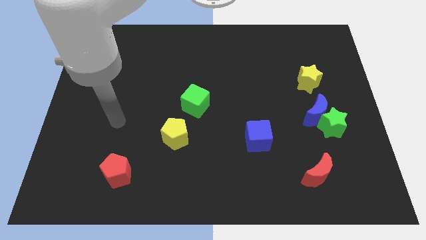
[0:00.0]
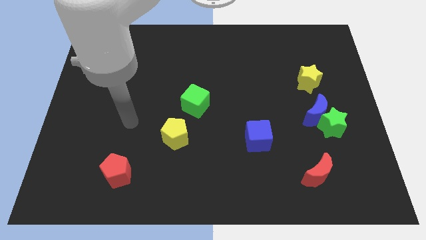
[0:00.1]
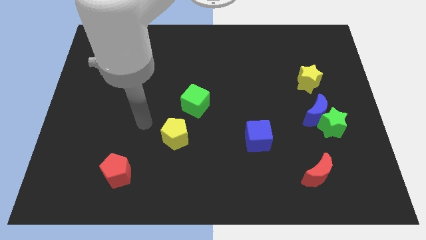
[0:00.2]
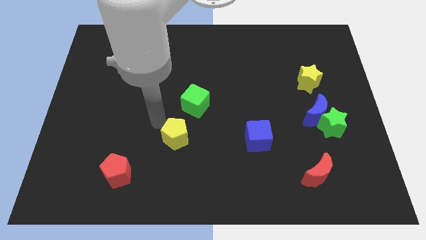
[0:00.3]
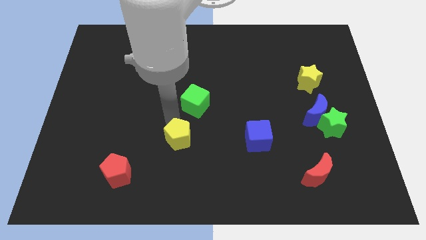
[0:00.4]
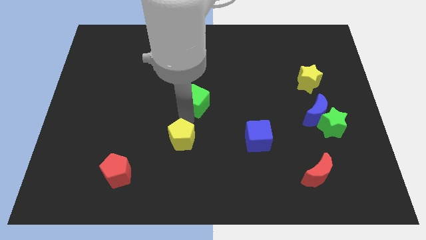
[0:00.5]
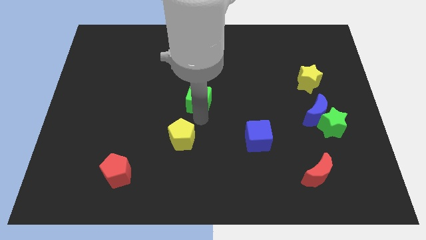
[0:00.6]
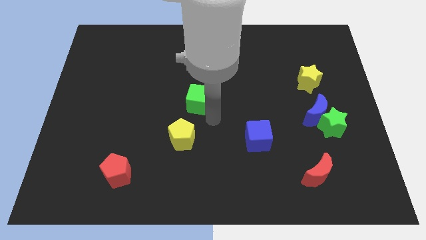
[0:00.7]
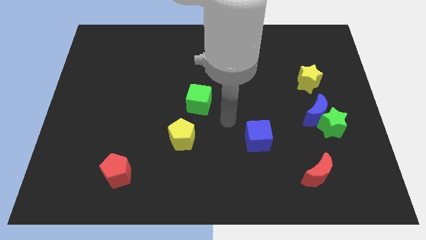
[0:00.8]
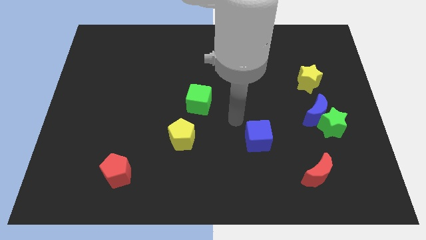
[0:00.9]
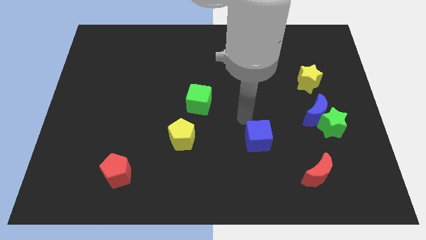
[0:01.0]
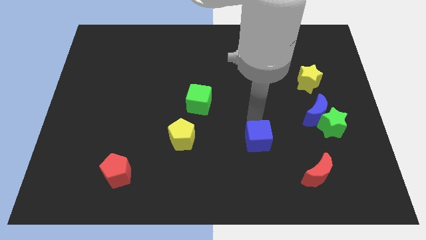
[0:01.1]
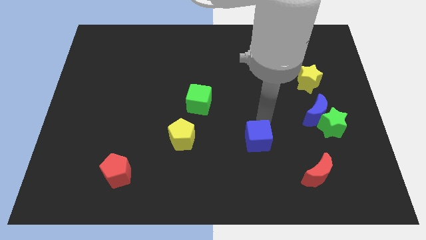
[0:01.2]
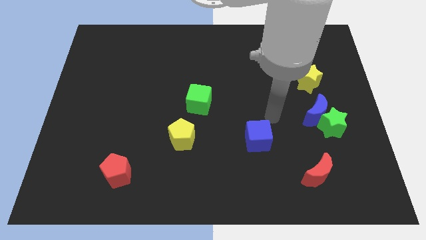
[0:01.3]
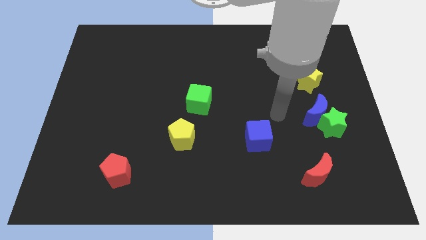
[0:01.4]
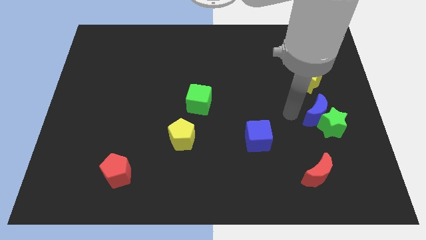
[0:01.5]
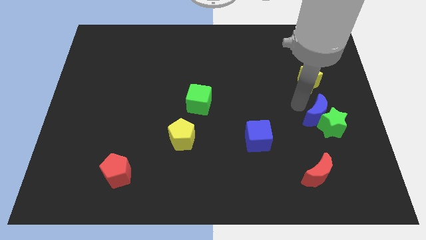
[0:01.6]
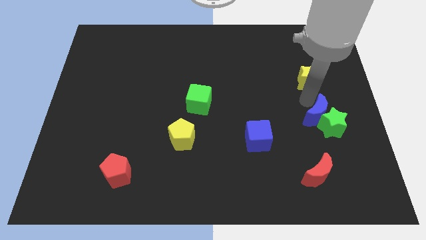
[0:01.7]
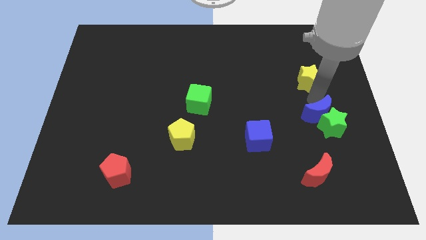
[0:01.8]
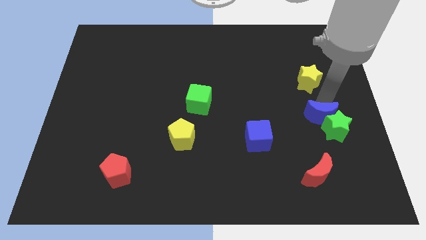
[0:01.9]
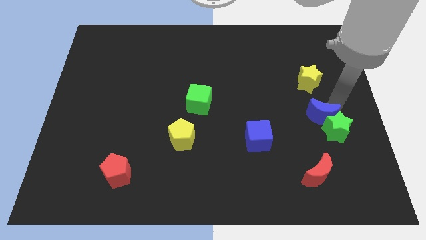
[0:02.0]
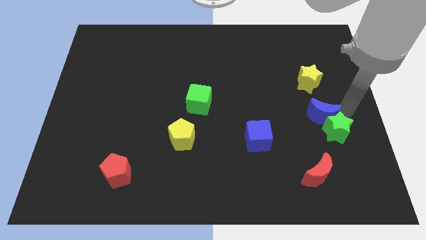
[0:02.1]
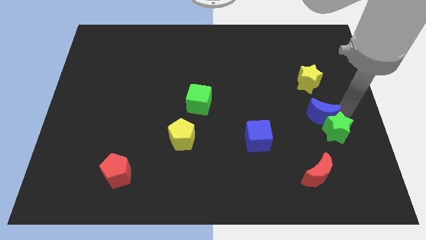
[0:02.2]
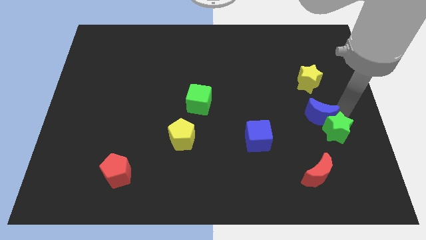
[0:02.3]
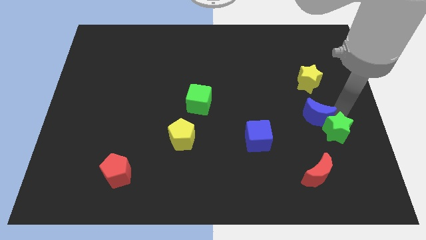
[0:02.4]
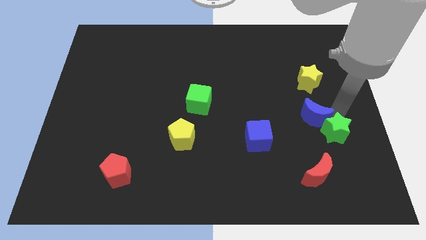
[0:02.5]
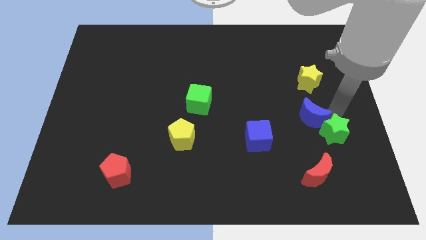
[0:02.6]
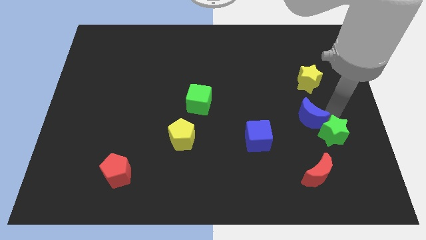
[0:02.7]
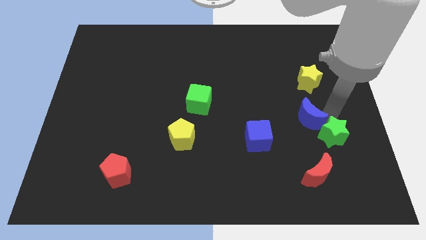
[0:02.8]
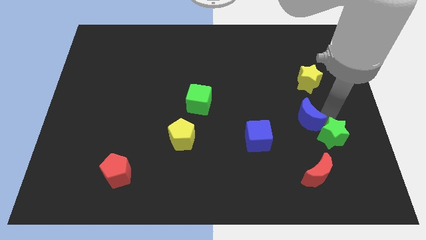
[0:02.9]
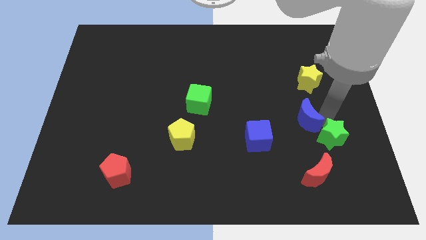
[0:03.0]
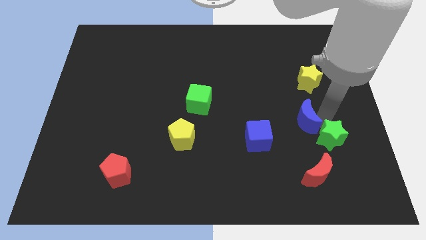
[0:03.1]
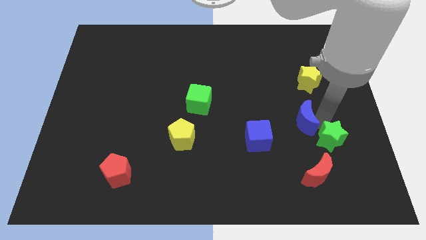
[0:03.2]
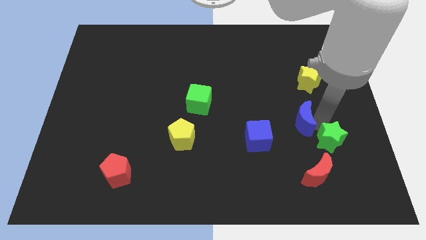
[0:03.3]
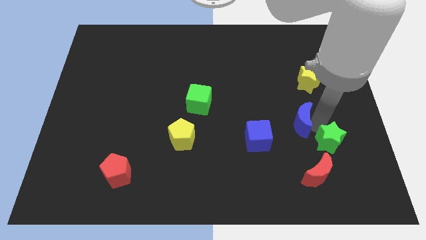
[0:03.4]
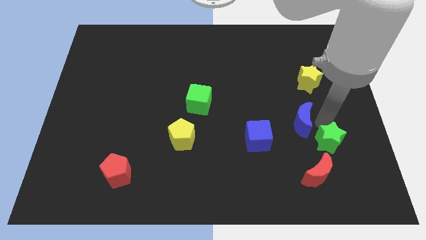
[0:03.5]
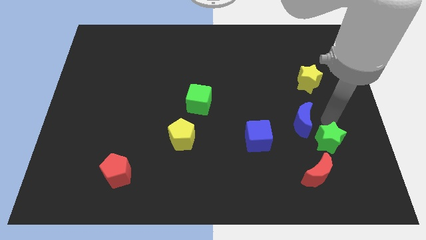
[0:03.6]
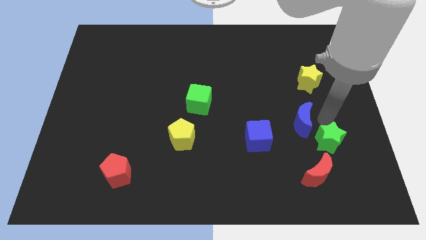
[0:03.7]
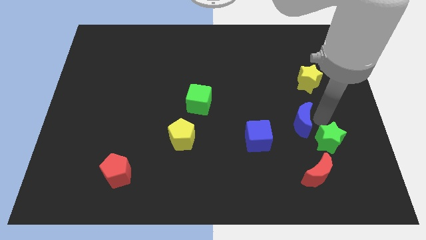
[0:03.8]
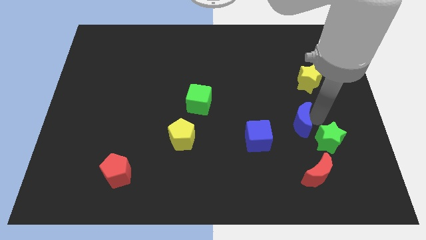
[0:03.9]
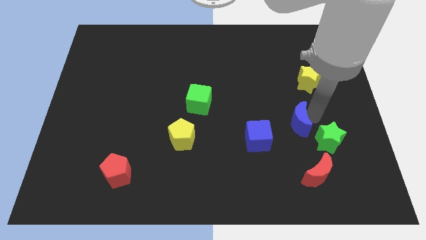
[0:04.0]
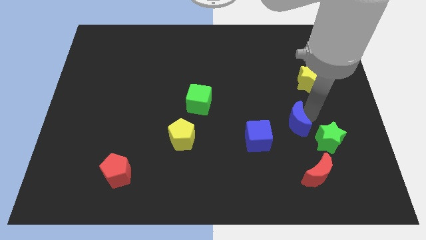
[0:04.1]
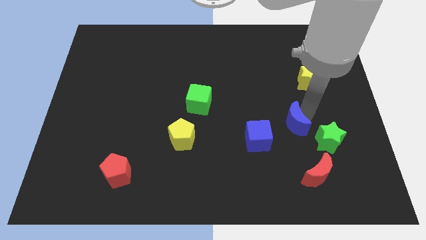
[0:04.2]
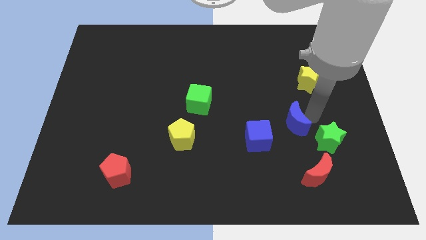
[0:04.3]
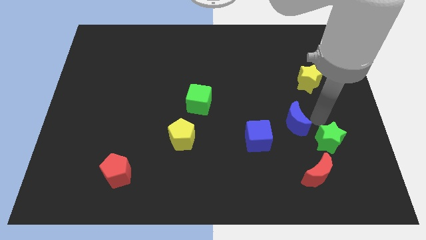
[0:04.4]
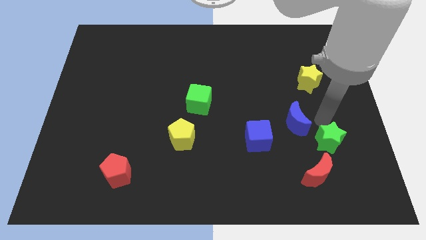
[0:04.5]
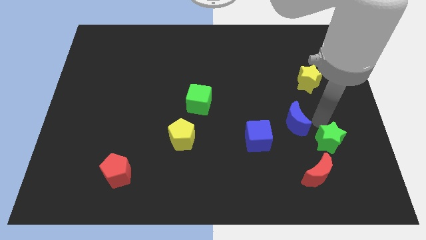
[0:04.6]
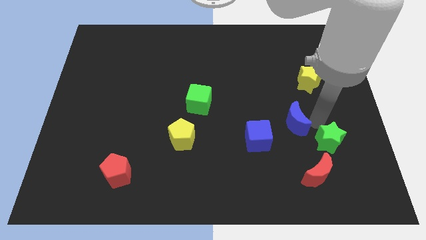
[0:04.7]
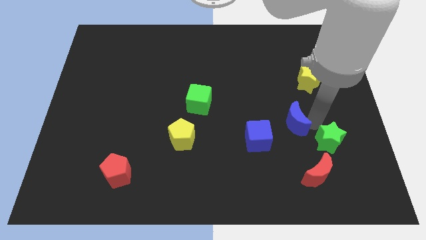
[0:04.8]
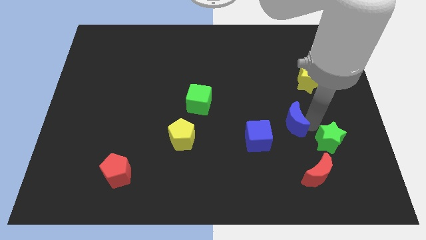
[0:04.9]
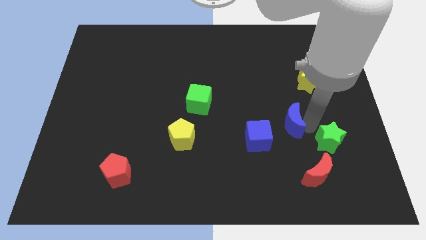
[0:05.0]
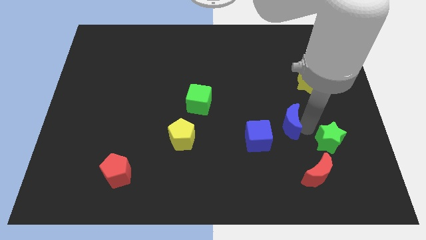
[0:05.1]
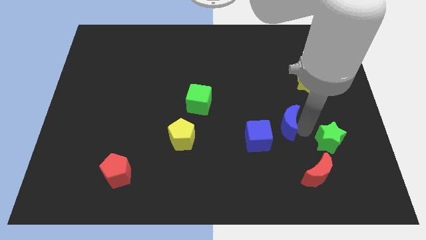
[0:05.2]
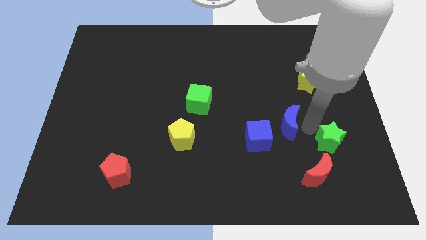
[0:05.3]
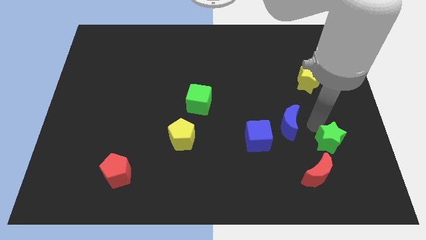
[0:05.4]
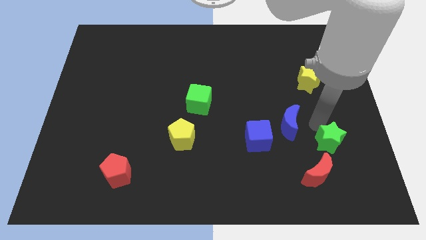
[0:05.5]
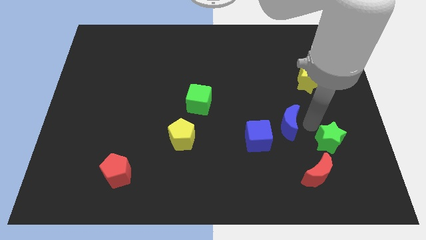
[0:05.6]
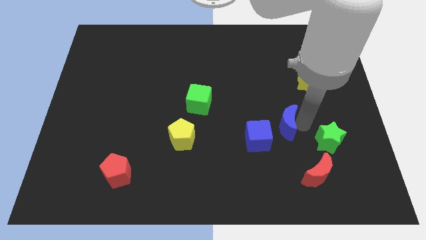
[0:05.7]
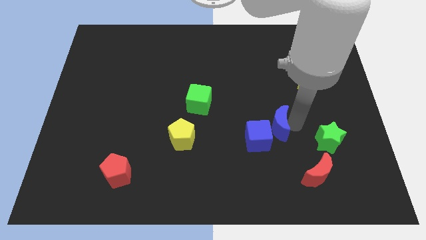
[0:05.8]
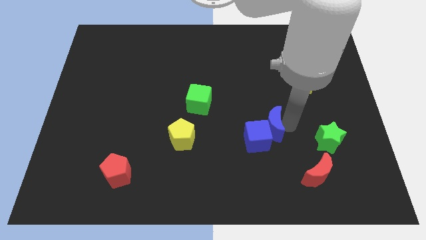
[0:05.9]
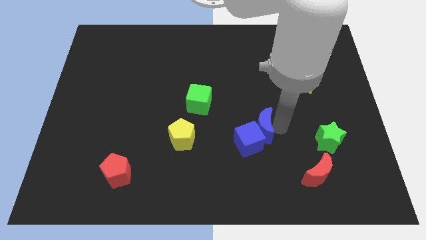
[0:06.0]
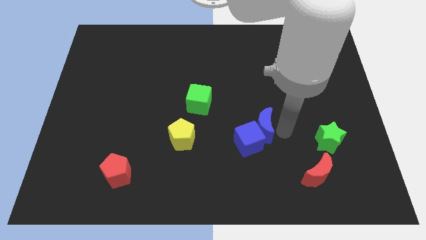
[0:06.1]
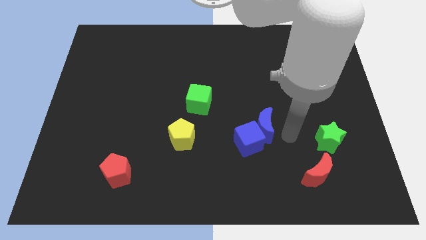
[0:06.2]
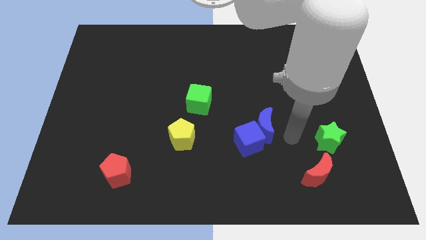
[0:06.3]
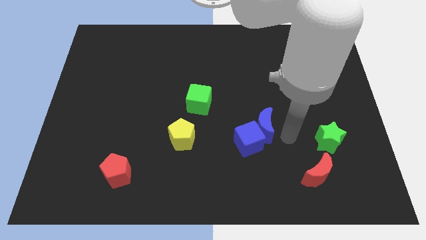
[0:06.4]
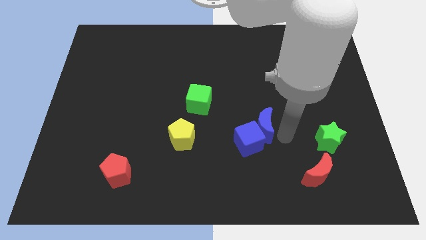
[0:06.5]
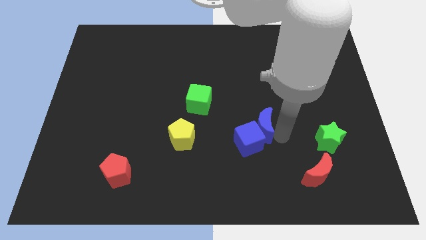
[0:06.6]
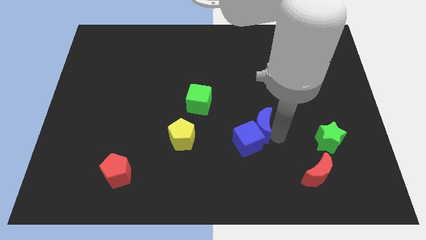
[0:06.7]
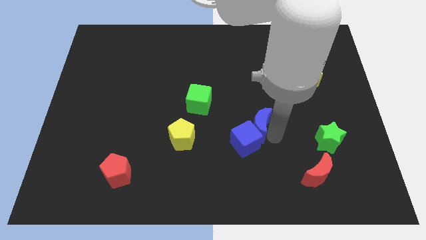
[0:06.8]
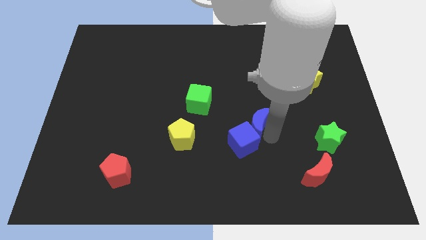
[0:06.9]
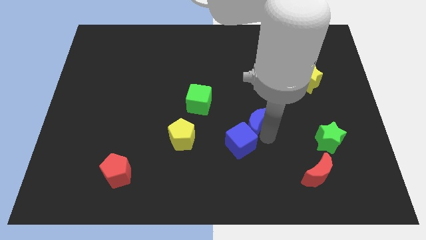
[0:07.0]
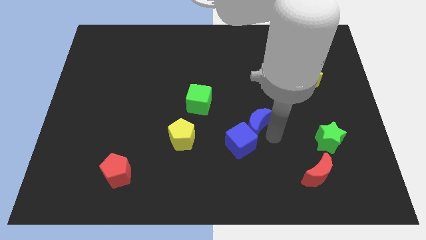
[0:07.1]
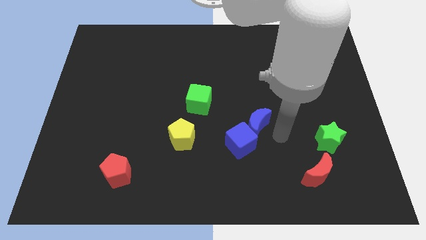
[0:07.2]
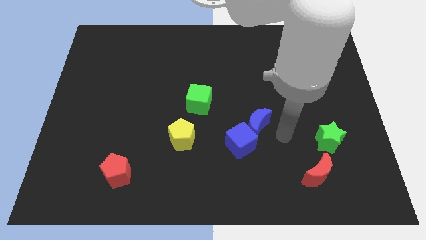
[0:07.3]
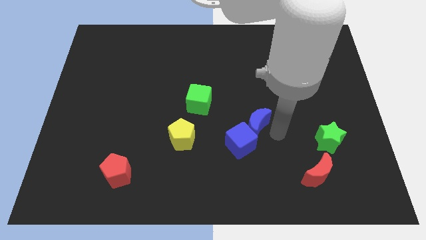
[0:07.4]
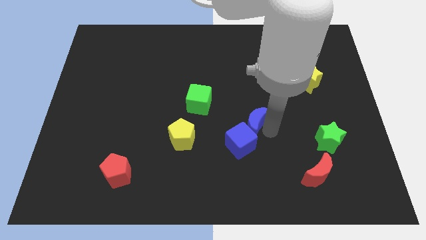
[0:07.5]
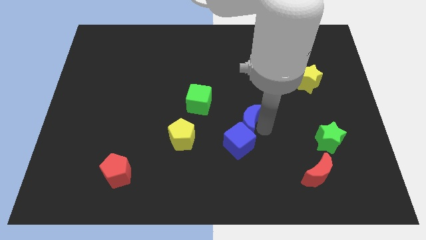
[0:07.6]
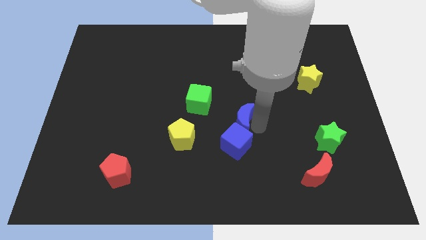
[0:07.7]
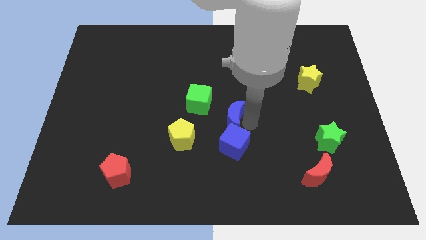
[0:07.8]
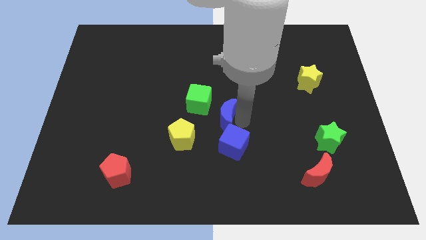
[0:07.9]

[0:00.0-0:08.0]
slide the blue moon left
